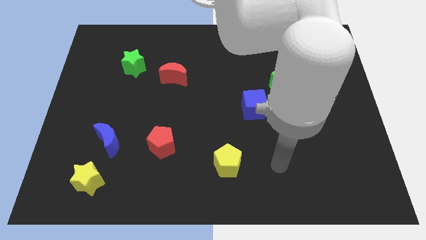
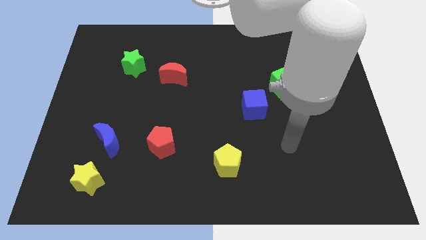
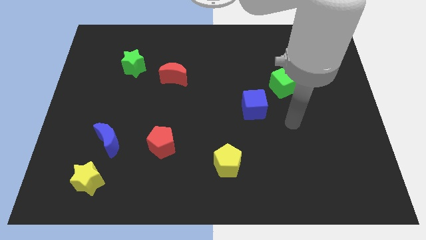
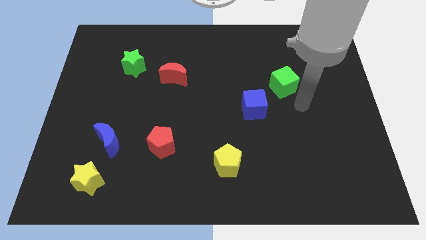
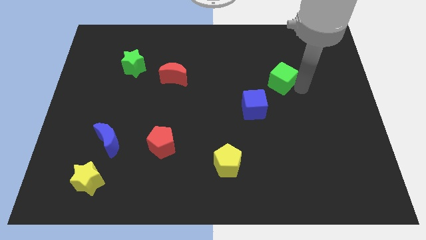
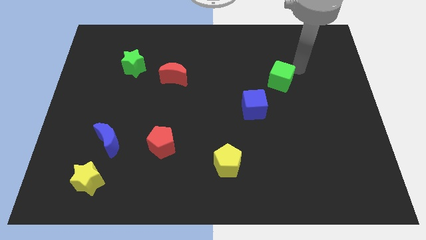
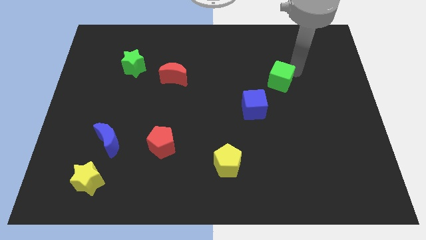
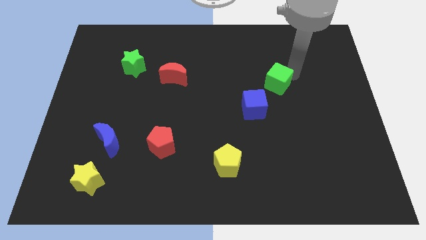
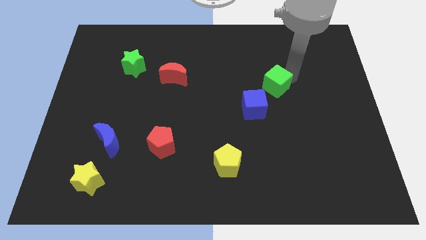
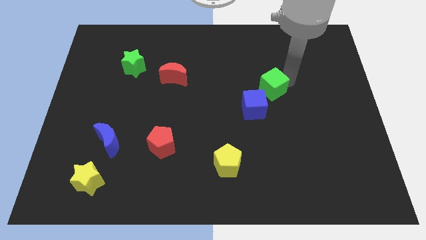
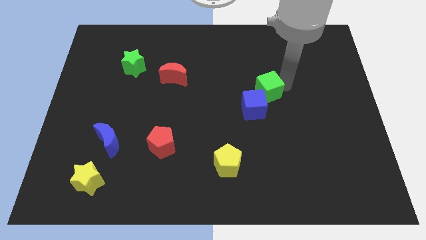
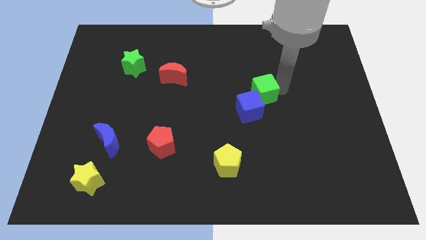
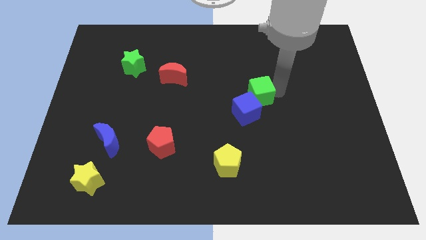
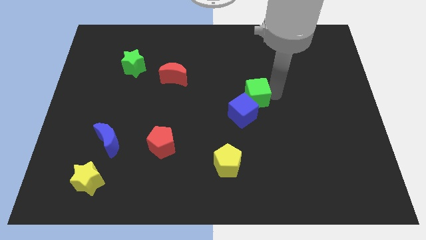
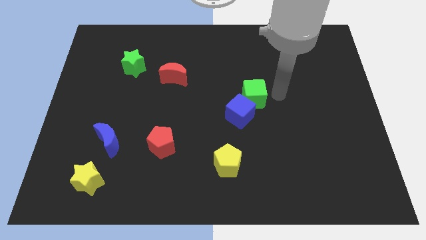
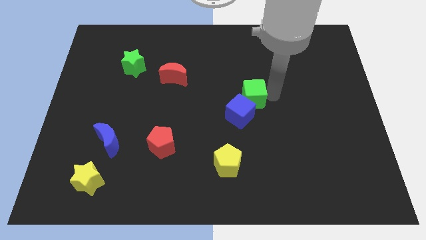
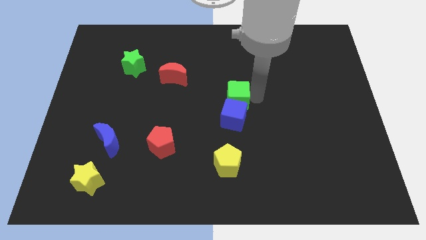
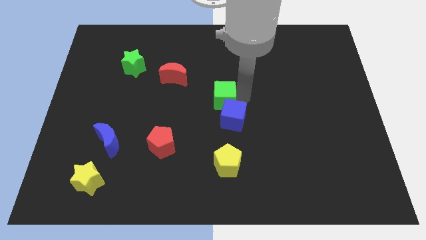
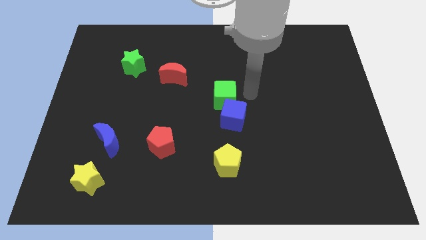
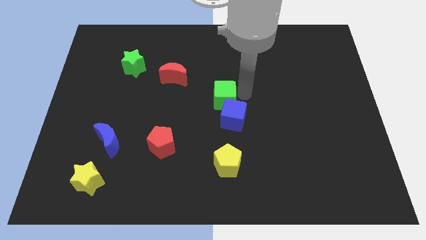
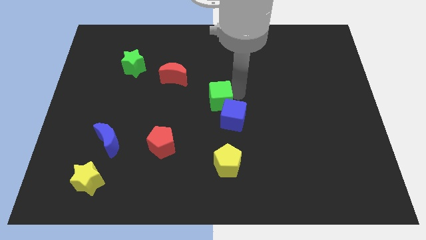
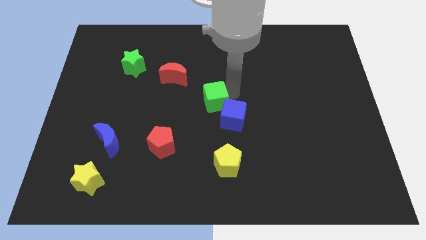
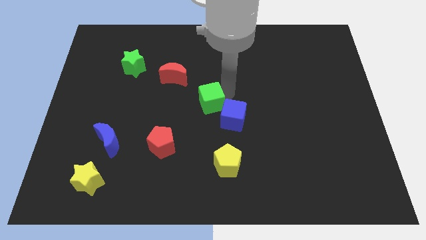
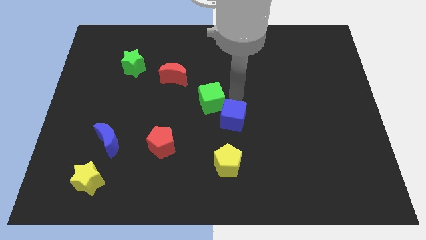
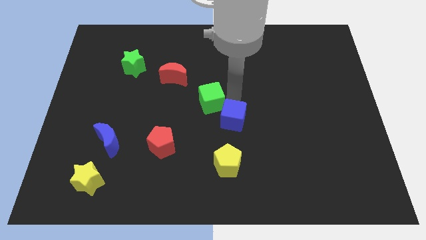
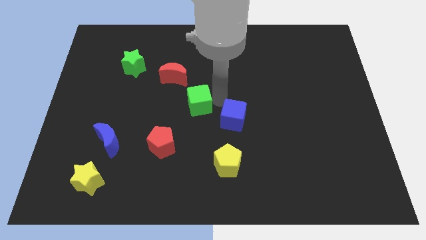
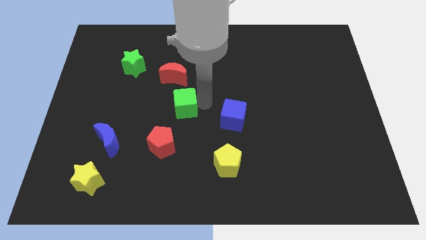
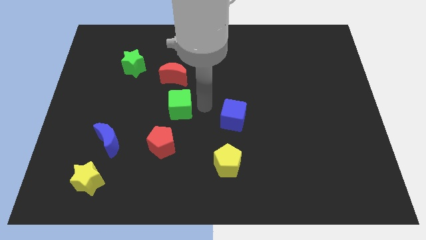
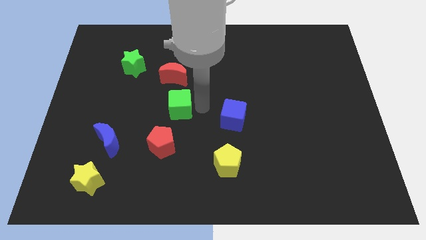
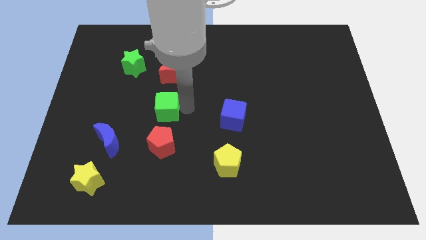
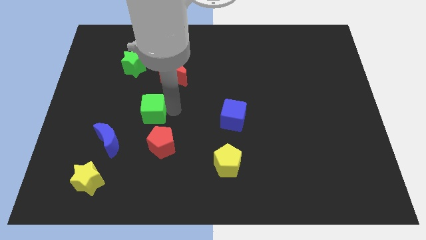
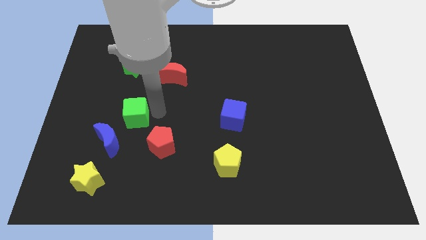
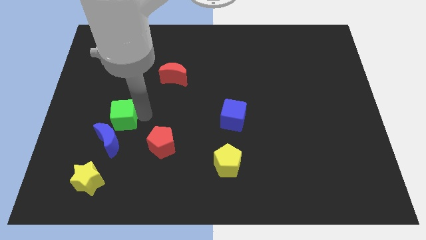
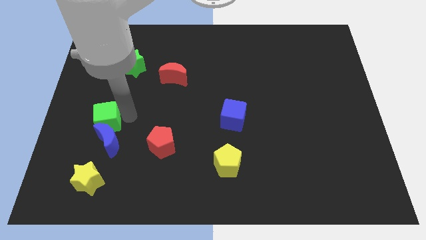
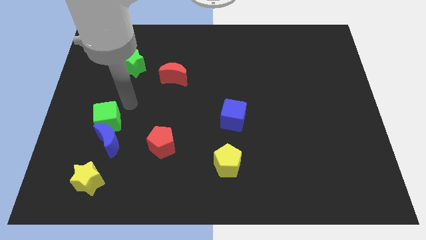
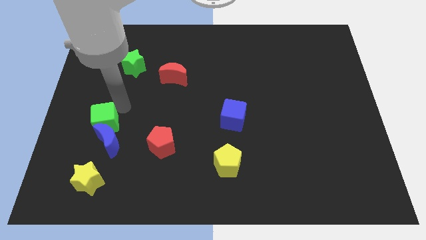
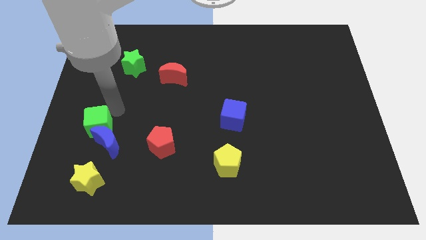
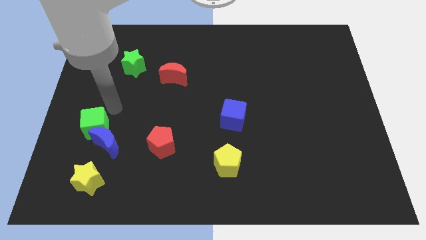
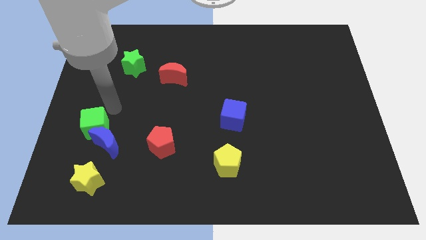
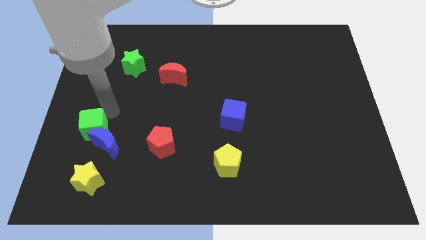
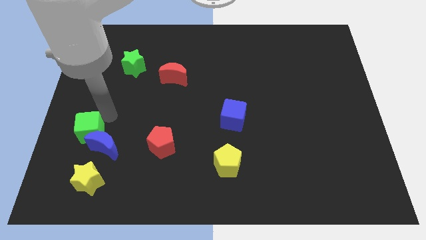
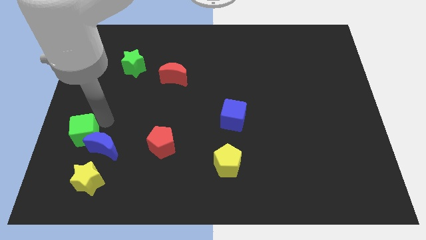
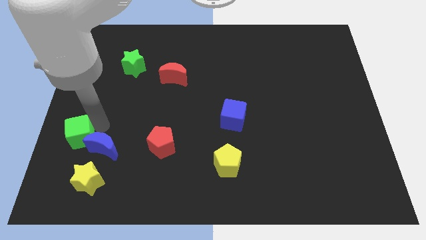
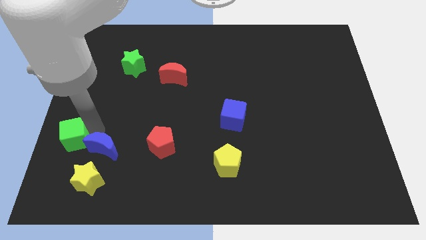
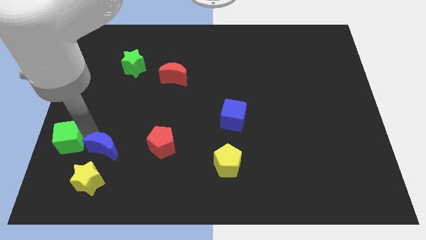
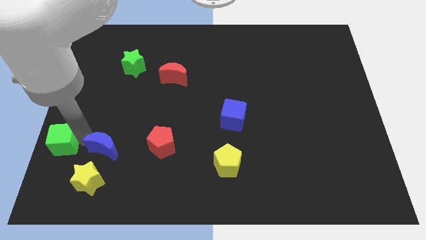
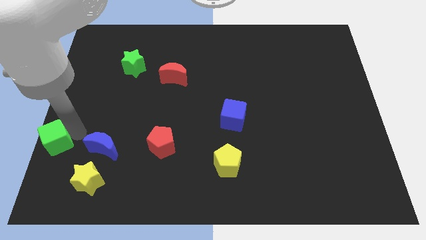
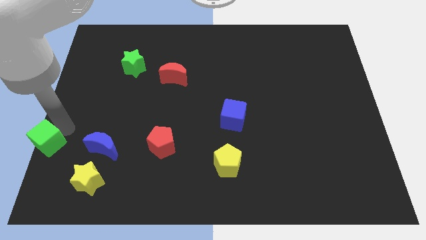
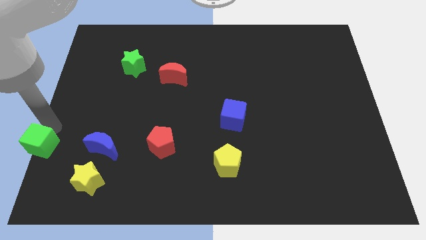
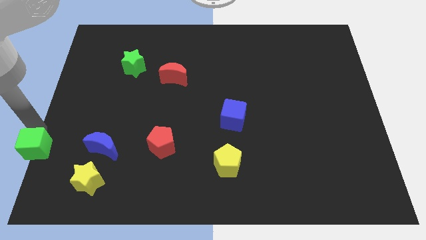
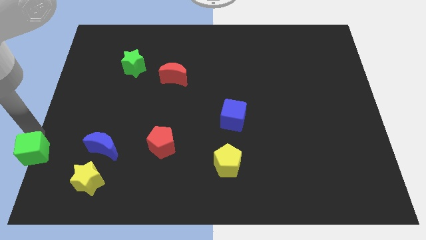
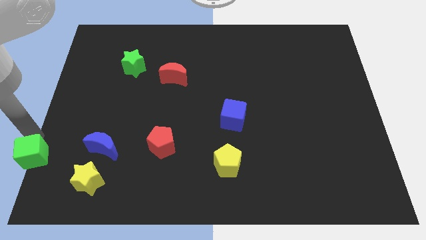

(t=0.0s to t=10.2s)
push the green cube to the bottom left corner

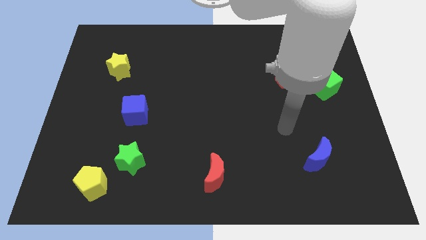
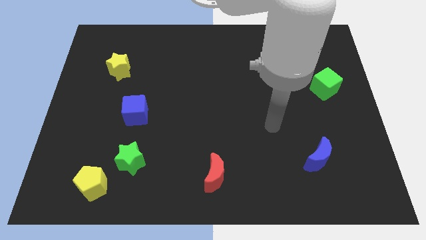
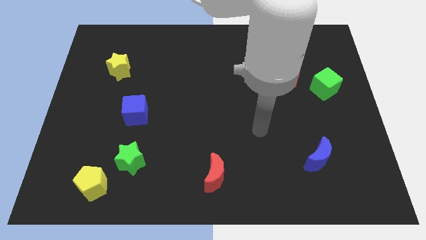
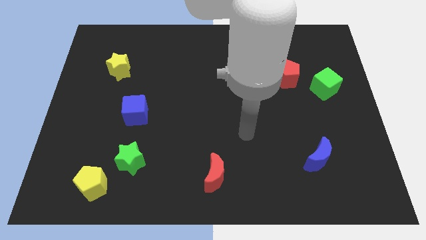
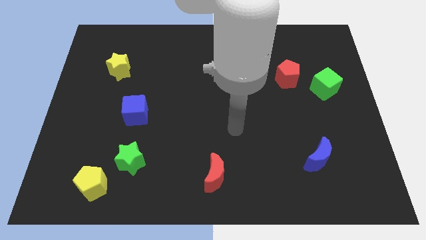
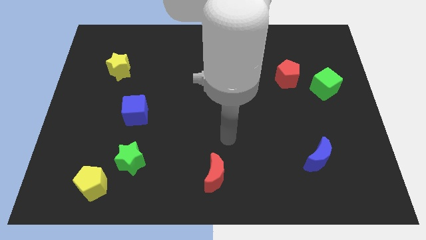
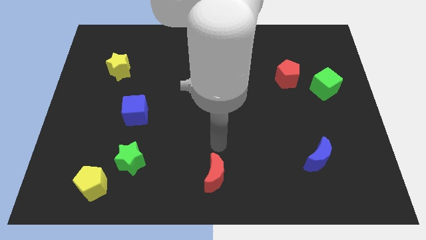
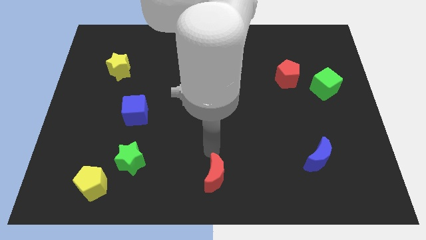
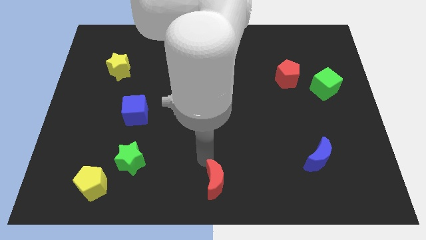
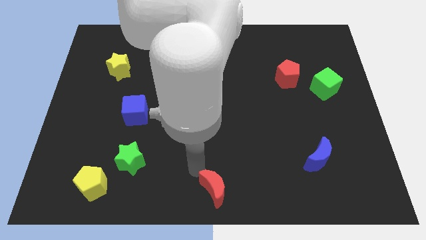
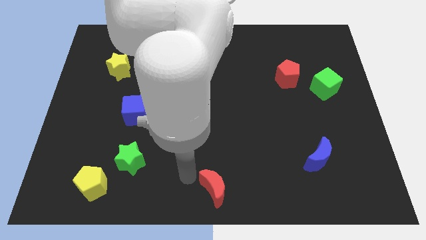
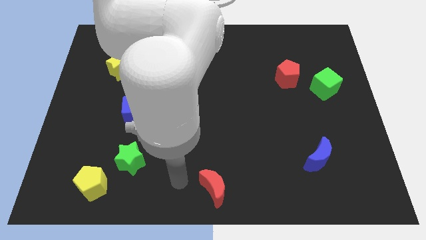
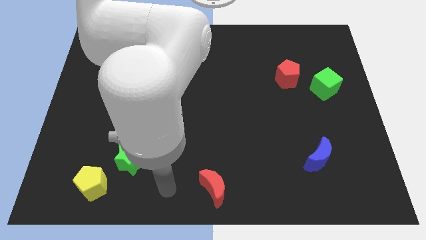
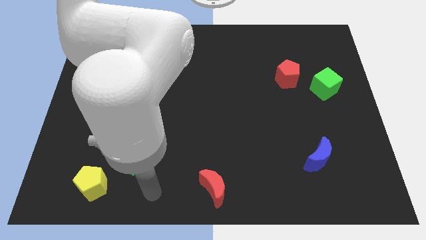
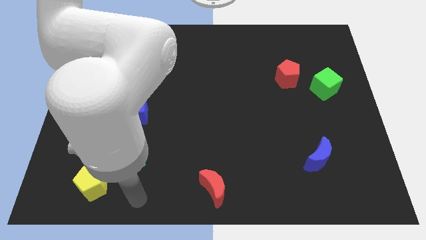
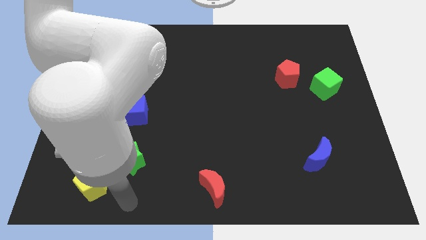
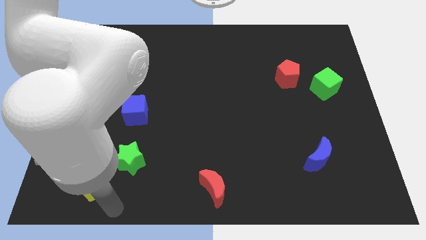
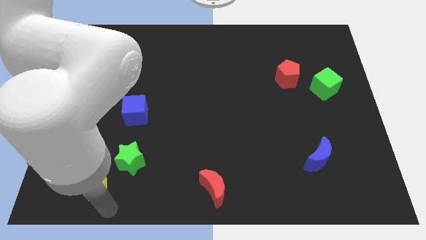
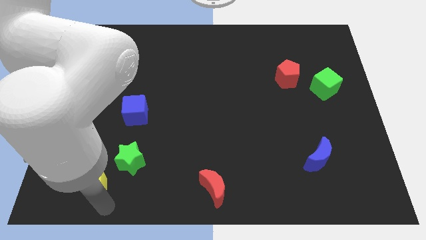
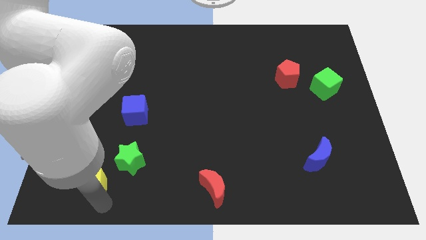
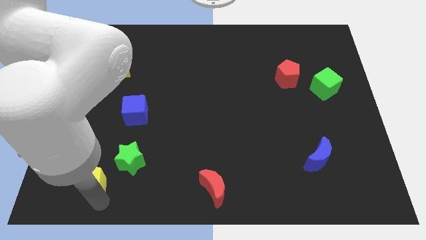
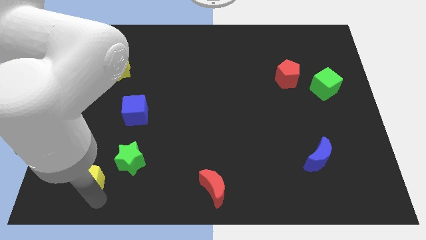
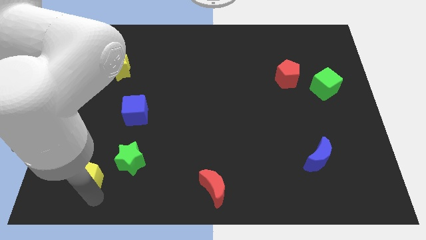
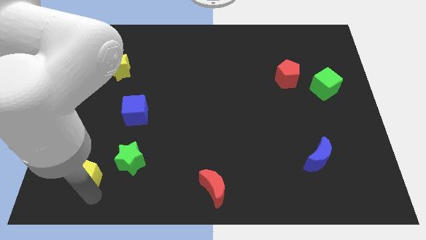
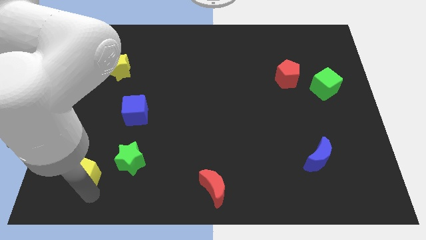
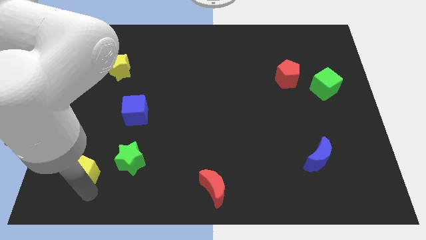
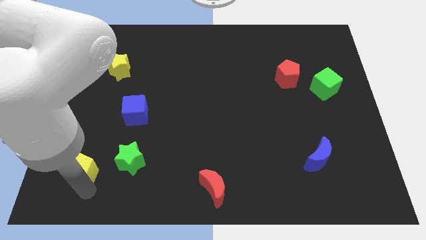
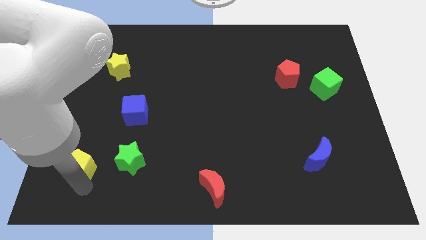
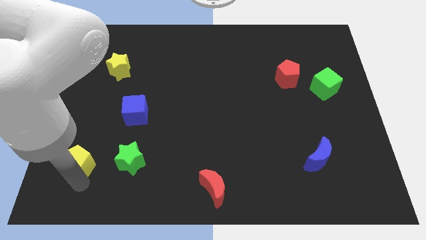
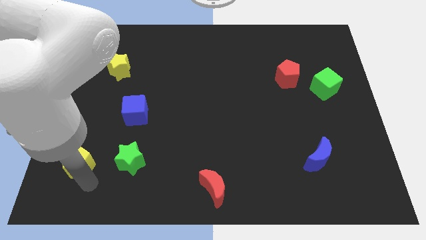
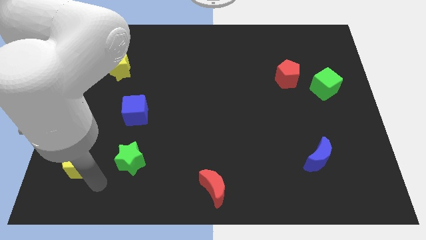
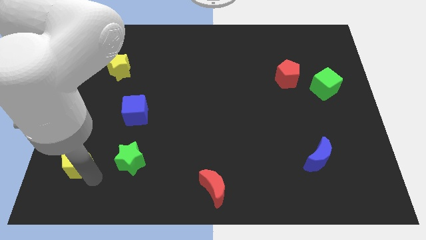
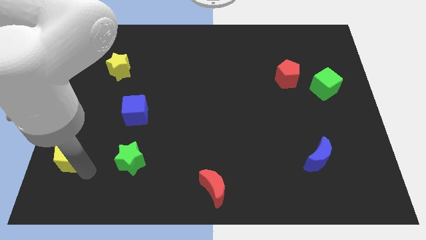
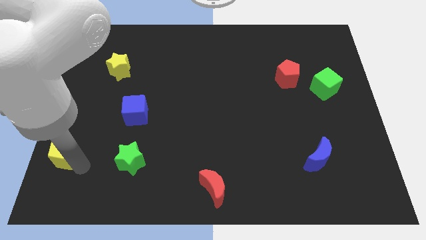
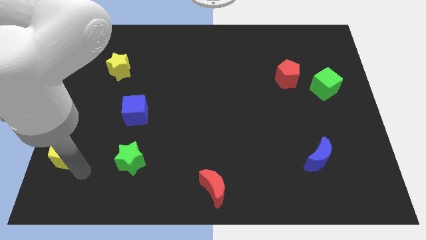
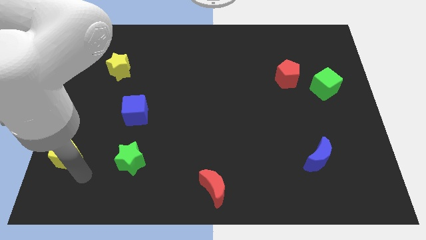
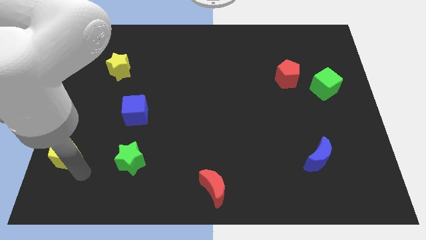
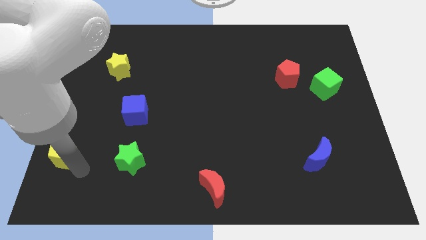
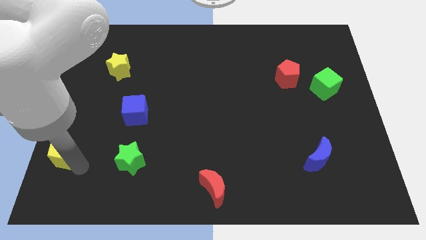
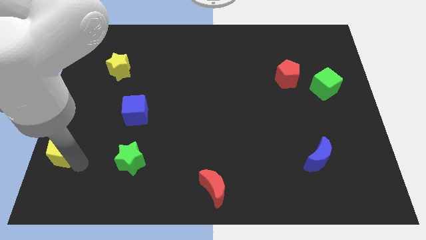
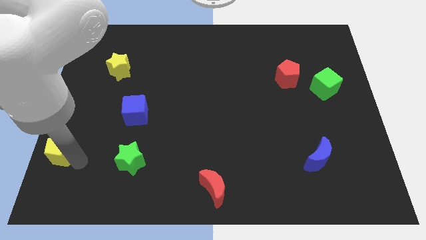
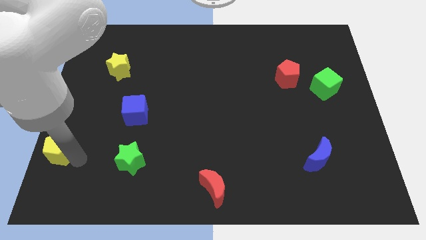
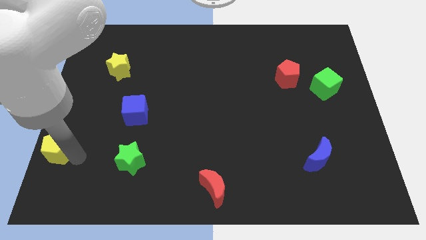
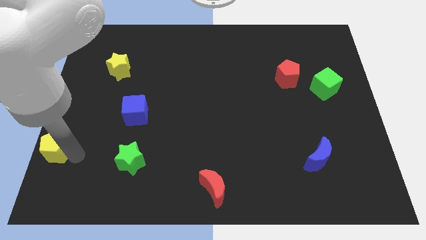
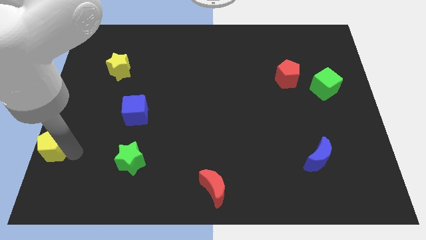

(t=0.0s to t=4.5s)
move the yellow pentagon to the left side
